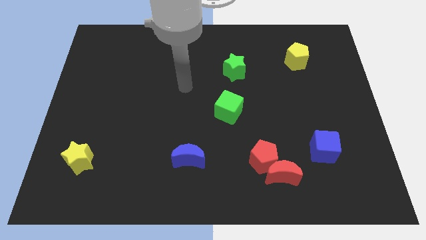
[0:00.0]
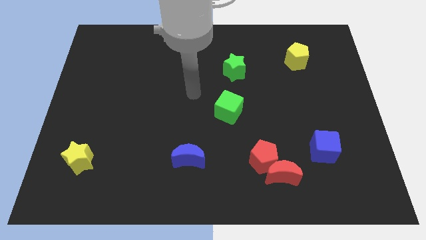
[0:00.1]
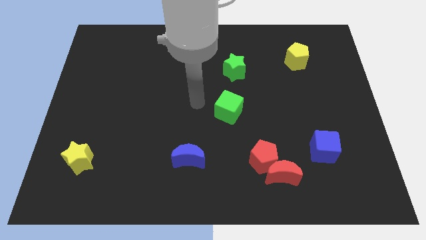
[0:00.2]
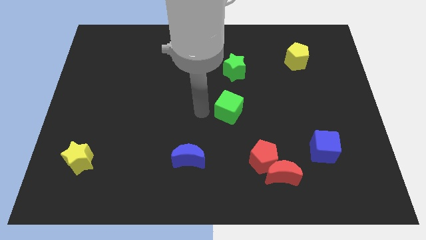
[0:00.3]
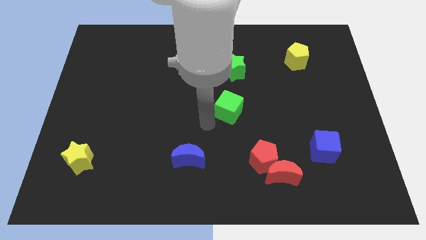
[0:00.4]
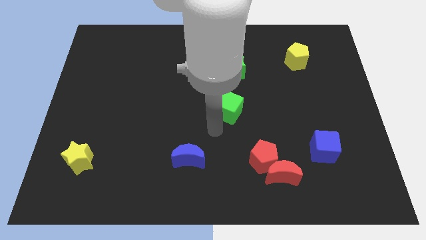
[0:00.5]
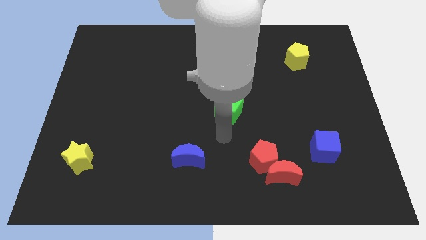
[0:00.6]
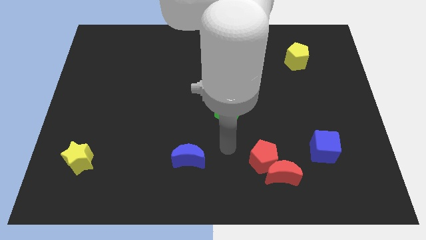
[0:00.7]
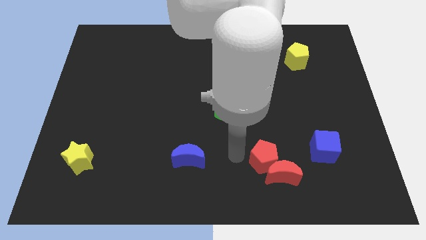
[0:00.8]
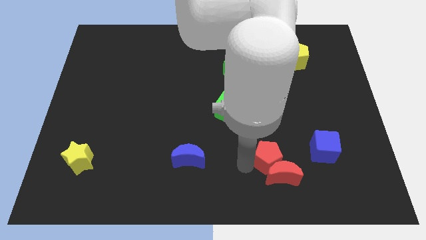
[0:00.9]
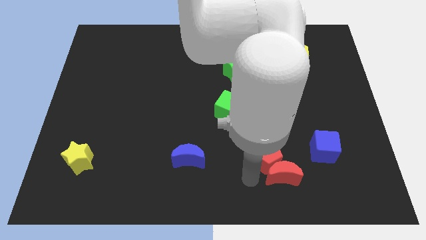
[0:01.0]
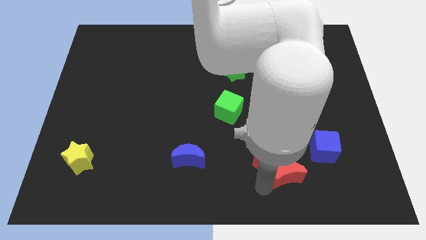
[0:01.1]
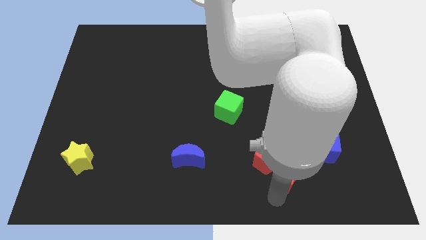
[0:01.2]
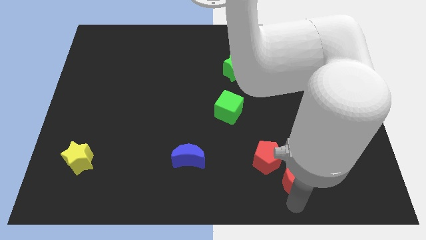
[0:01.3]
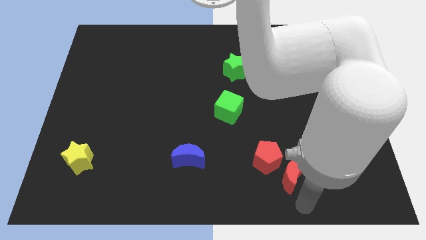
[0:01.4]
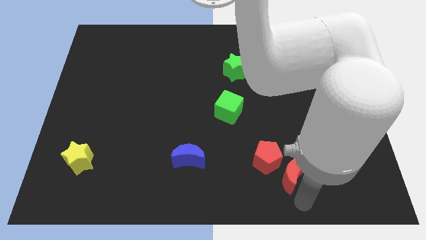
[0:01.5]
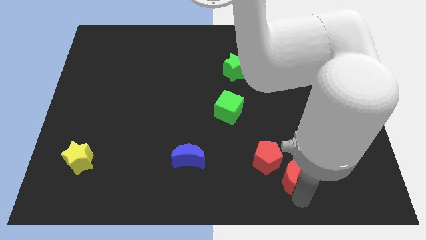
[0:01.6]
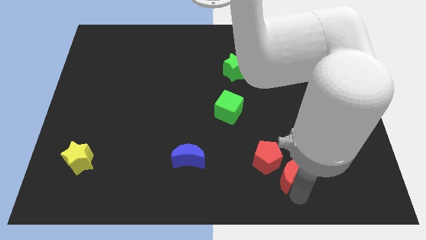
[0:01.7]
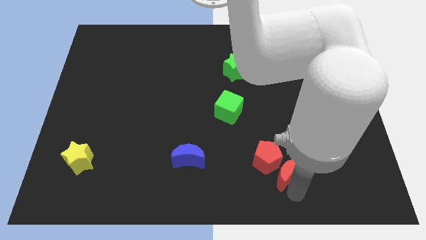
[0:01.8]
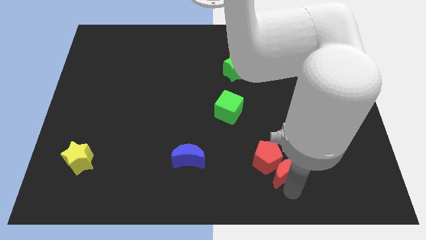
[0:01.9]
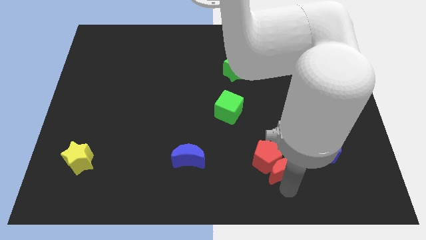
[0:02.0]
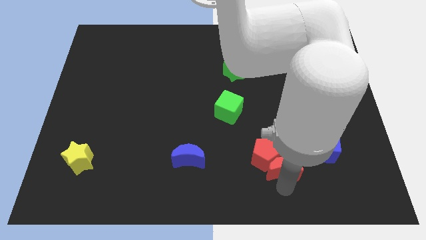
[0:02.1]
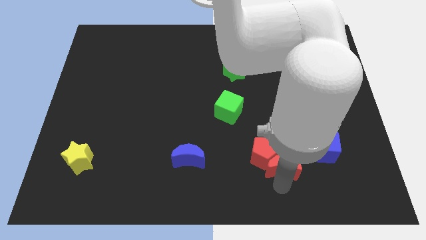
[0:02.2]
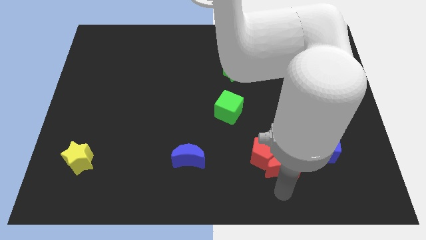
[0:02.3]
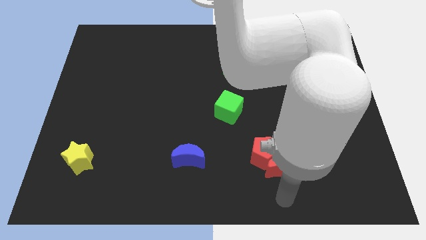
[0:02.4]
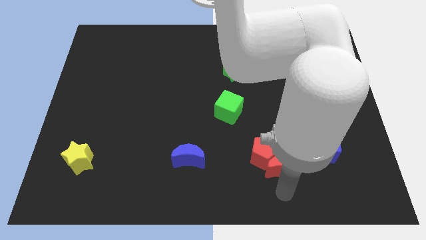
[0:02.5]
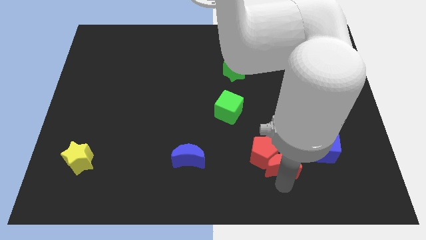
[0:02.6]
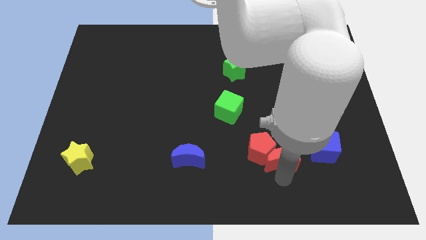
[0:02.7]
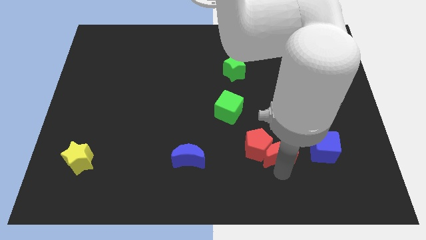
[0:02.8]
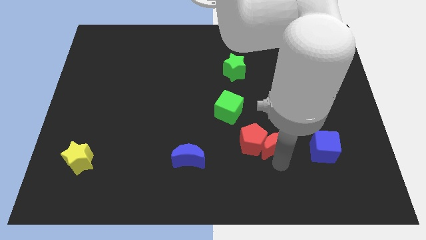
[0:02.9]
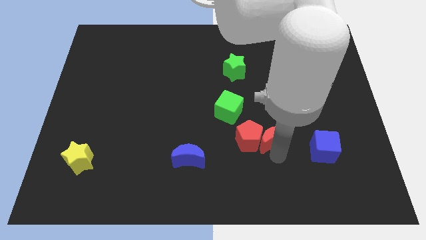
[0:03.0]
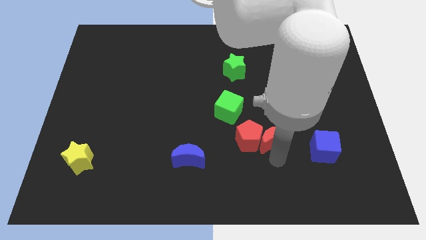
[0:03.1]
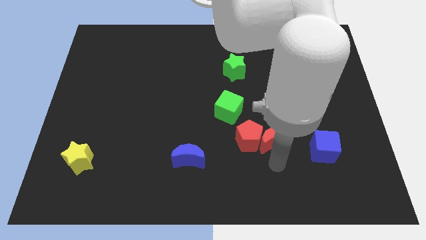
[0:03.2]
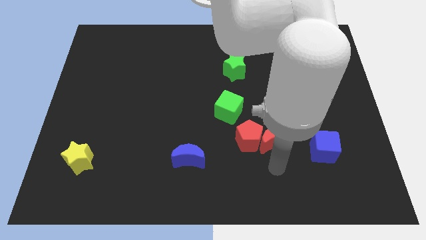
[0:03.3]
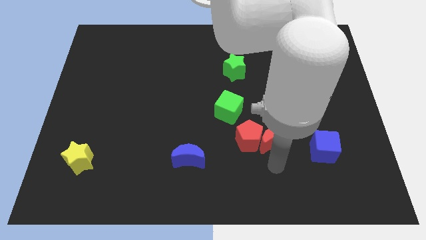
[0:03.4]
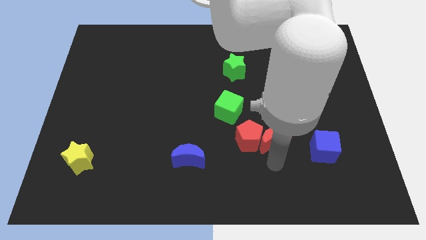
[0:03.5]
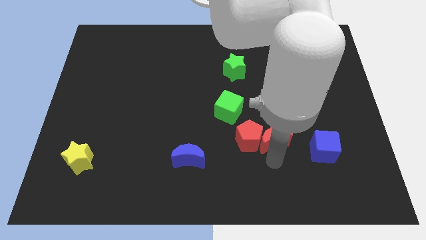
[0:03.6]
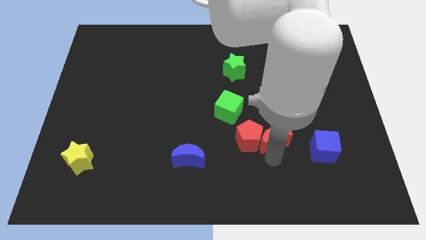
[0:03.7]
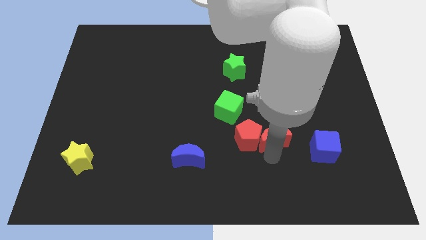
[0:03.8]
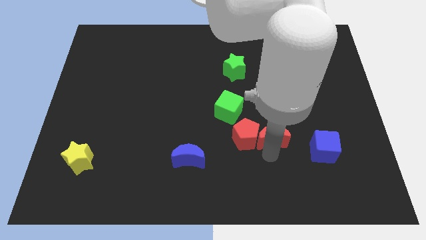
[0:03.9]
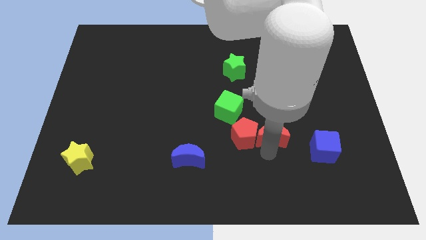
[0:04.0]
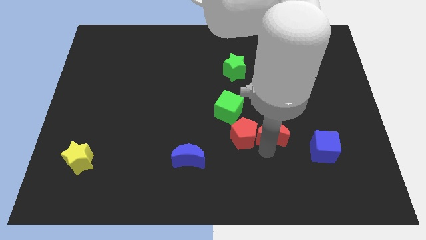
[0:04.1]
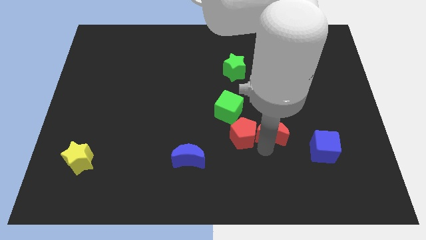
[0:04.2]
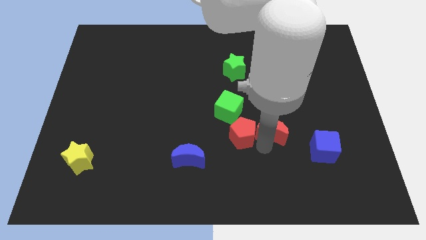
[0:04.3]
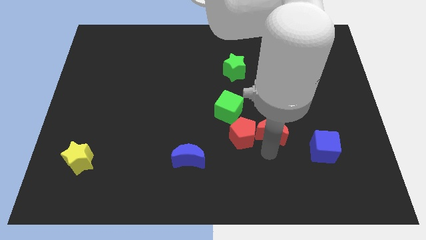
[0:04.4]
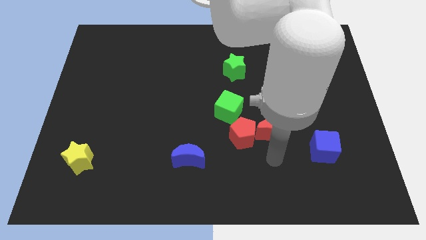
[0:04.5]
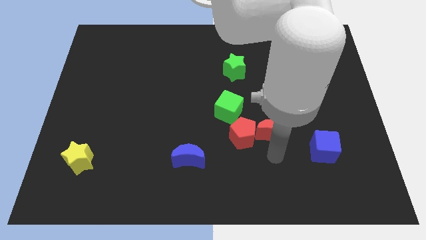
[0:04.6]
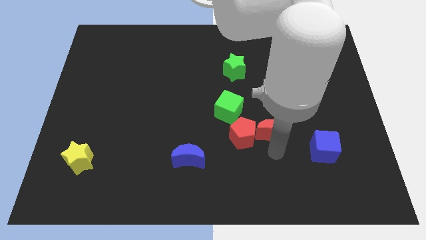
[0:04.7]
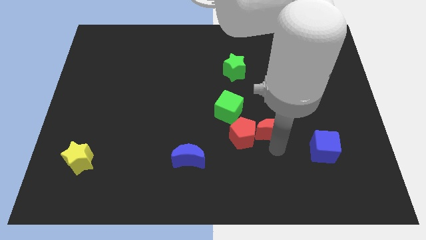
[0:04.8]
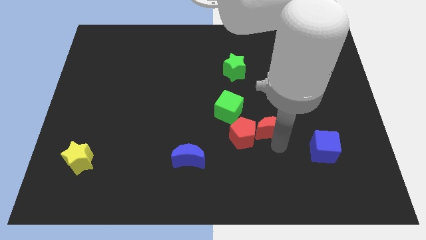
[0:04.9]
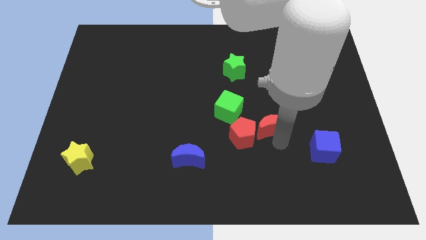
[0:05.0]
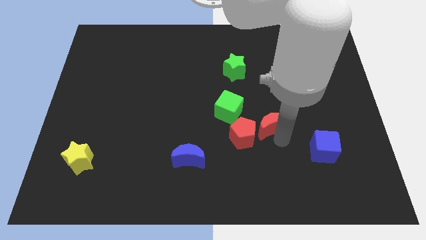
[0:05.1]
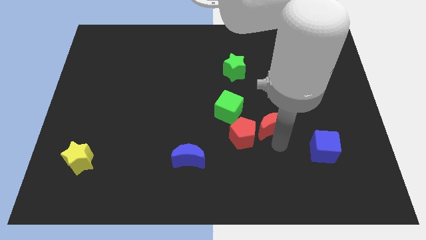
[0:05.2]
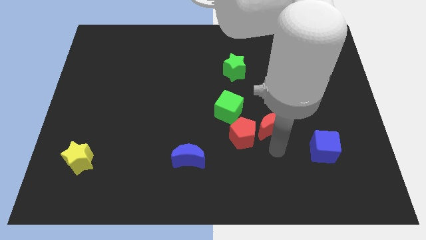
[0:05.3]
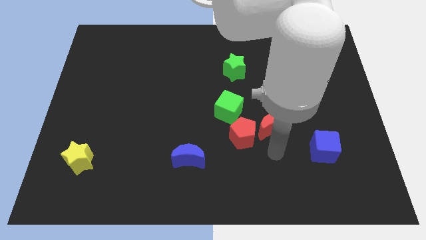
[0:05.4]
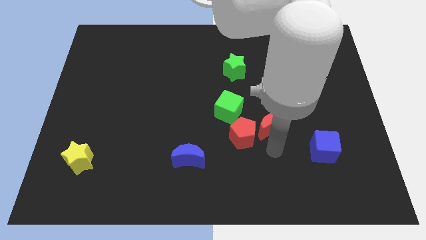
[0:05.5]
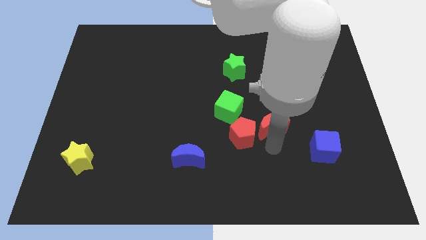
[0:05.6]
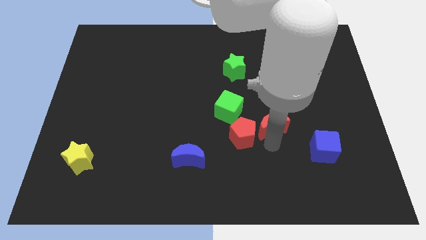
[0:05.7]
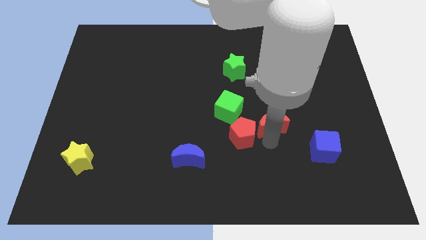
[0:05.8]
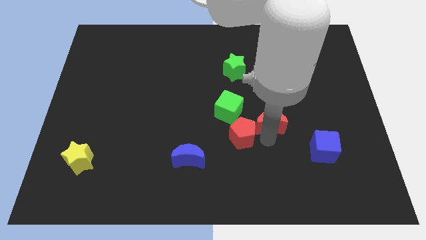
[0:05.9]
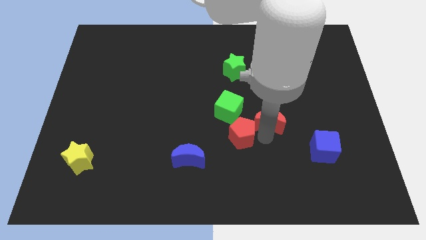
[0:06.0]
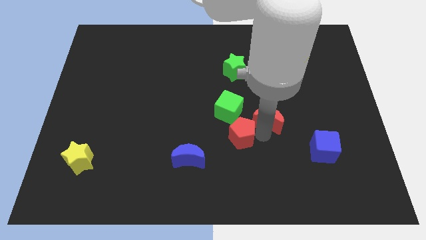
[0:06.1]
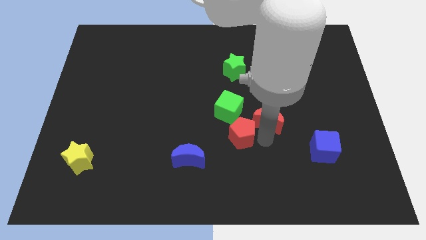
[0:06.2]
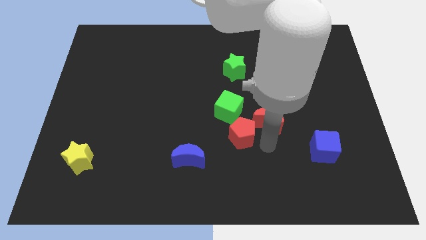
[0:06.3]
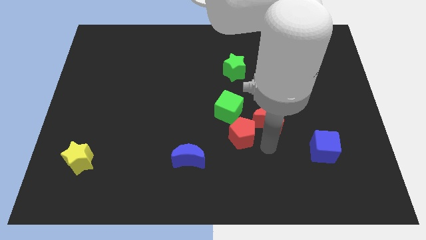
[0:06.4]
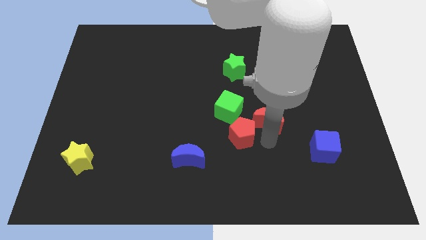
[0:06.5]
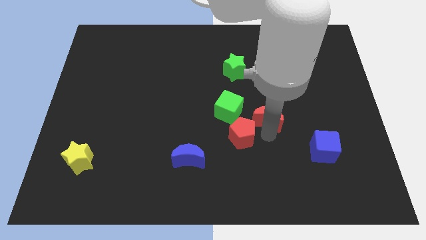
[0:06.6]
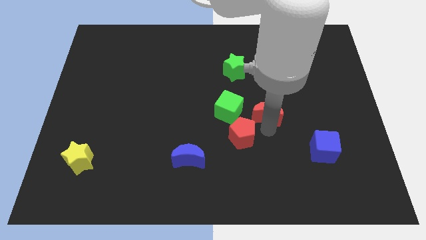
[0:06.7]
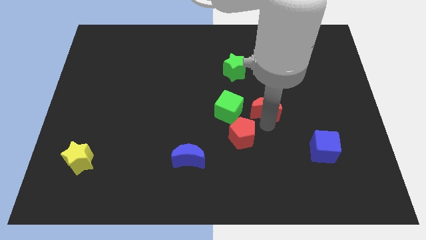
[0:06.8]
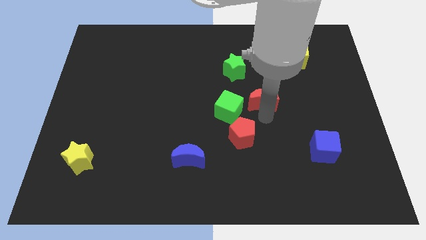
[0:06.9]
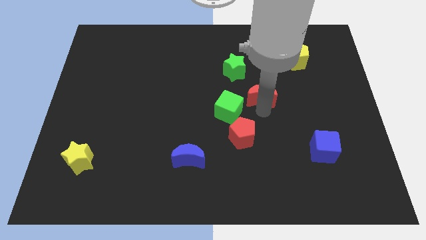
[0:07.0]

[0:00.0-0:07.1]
slide the red moon up

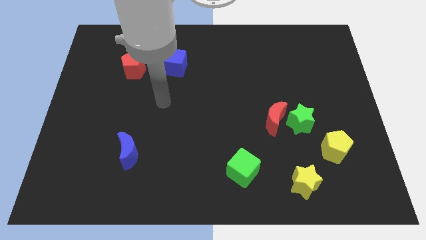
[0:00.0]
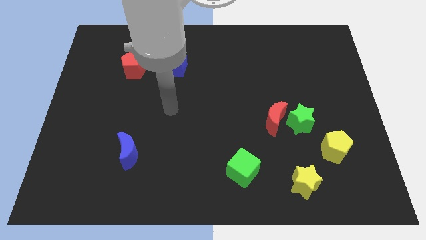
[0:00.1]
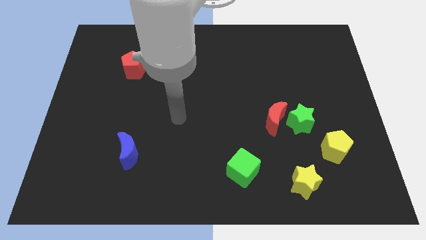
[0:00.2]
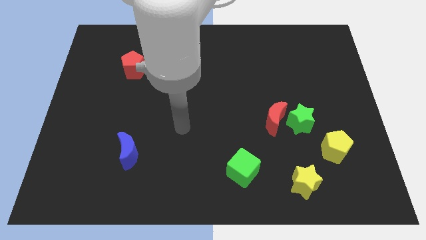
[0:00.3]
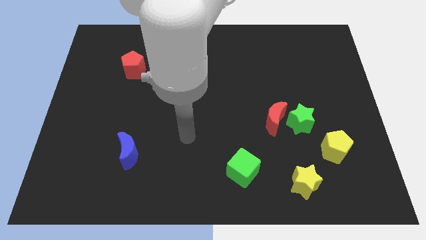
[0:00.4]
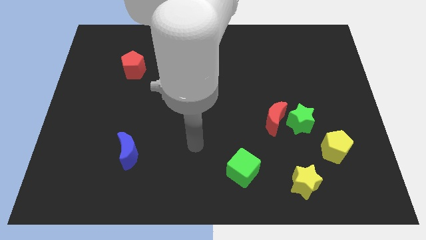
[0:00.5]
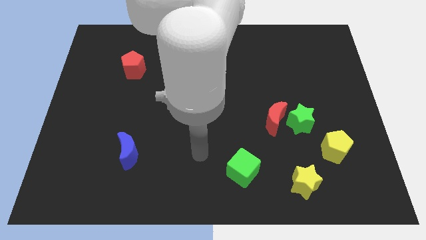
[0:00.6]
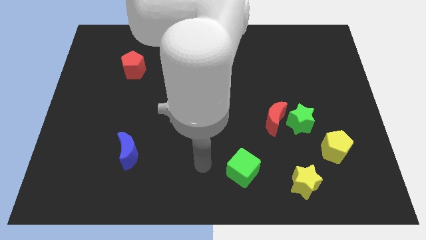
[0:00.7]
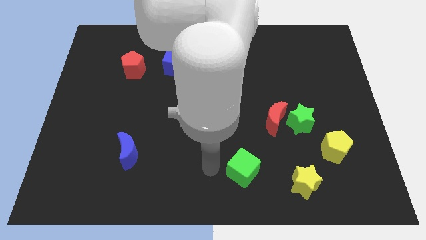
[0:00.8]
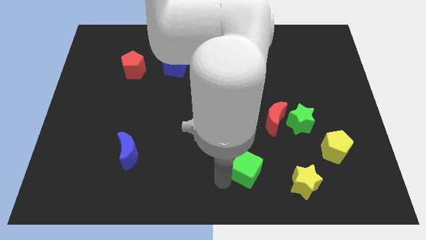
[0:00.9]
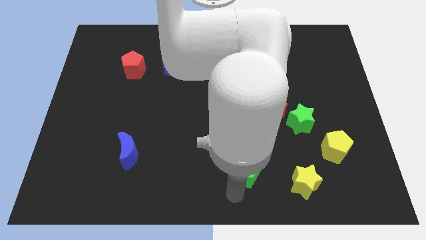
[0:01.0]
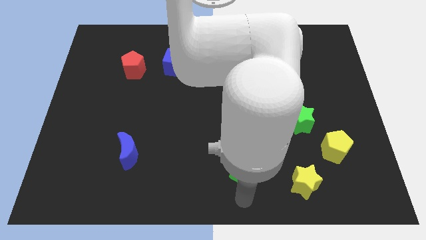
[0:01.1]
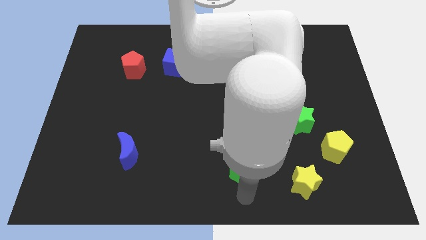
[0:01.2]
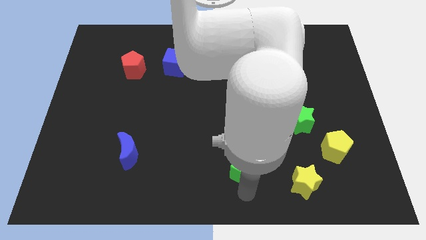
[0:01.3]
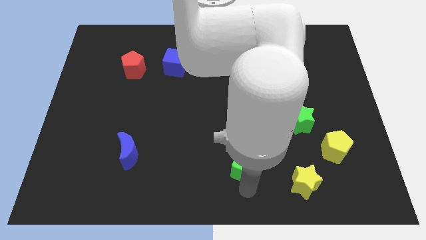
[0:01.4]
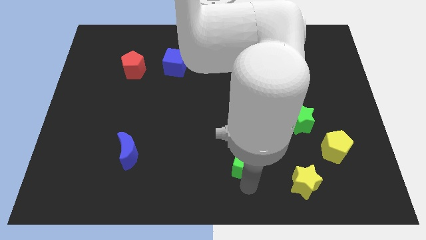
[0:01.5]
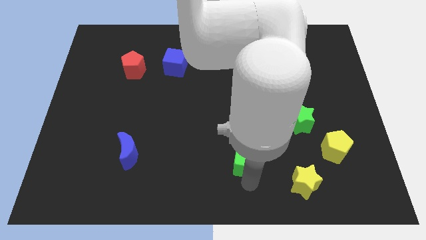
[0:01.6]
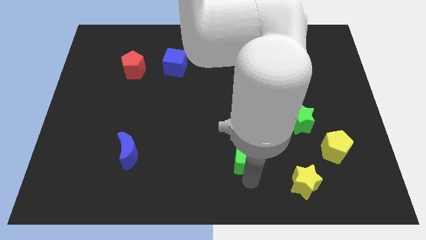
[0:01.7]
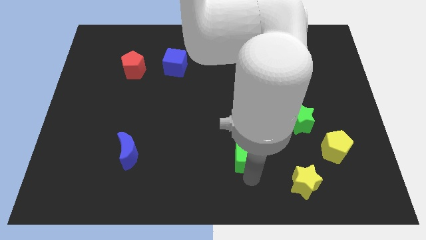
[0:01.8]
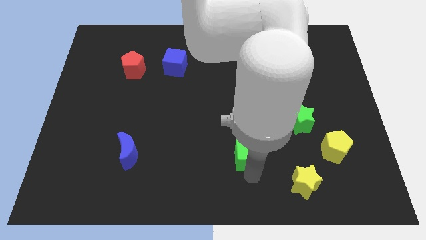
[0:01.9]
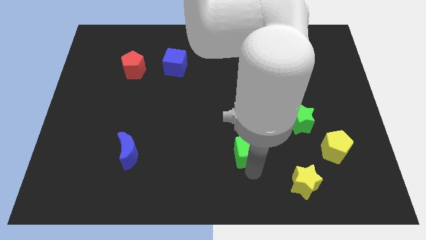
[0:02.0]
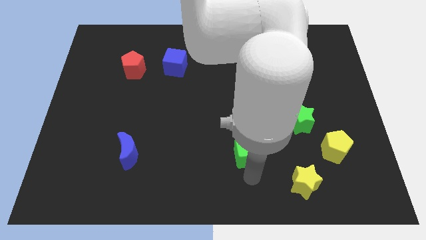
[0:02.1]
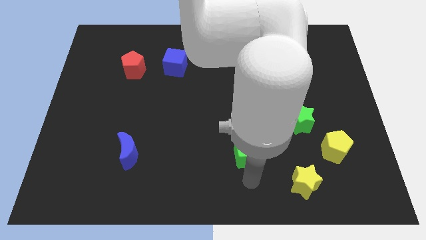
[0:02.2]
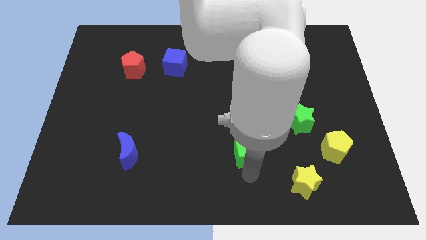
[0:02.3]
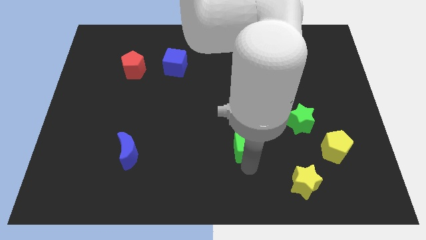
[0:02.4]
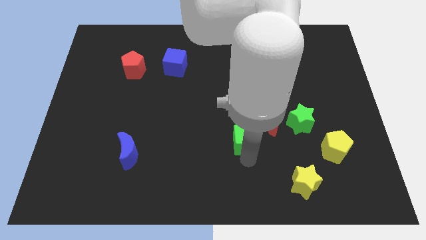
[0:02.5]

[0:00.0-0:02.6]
slightly move the green cube up
